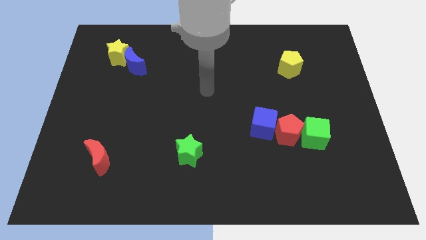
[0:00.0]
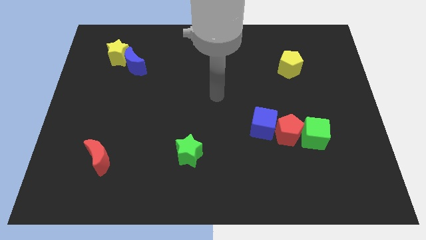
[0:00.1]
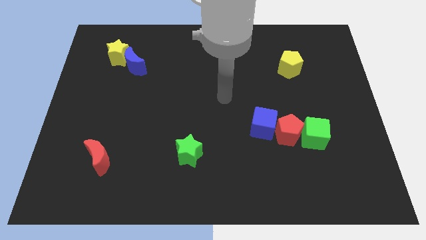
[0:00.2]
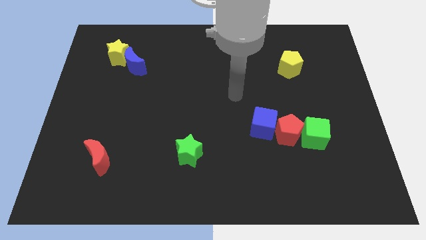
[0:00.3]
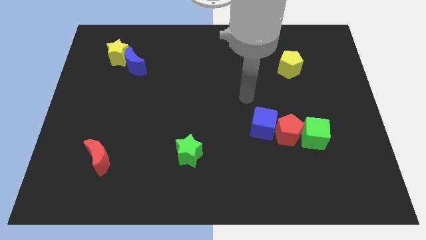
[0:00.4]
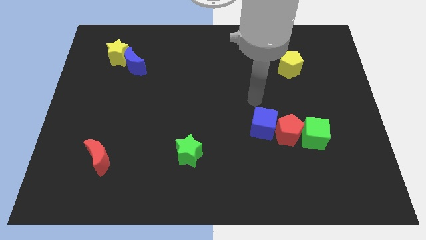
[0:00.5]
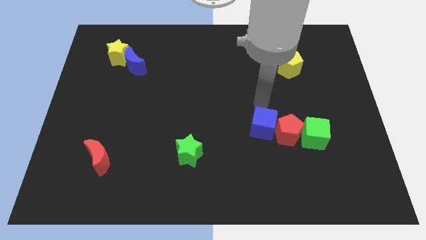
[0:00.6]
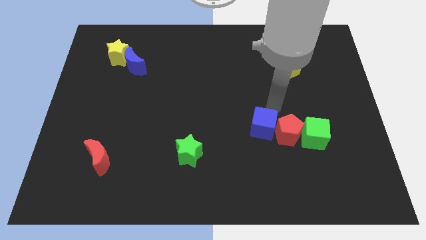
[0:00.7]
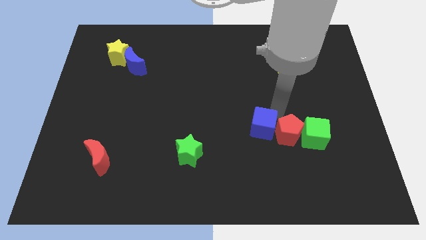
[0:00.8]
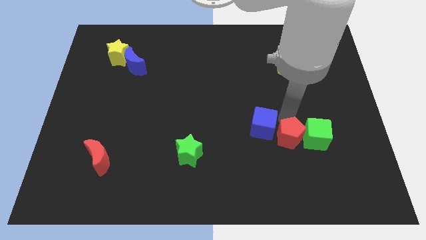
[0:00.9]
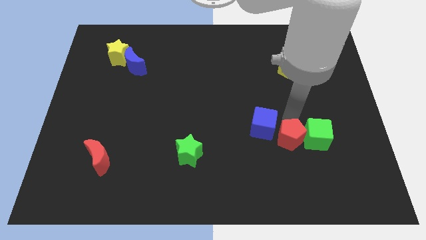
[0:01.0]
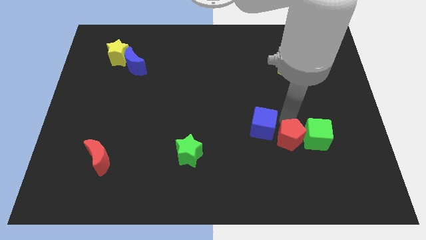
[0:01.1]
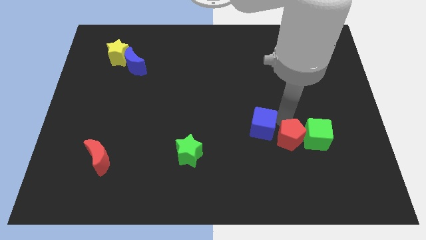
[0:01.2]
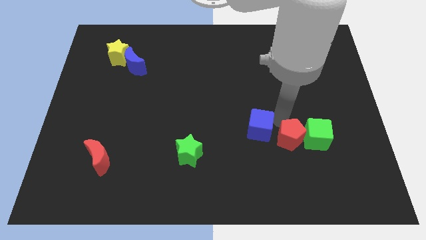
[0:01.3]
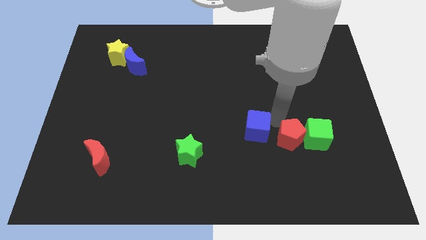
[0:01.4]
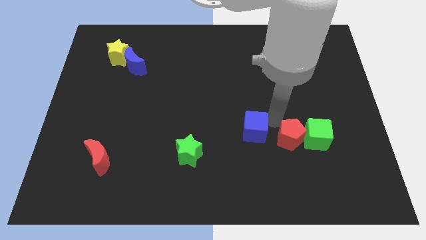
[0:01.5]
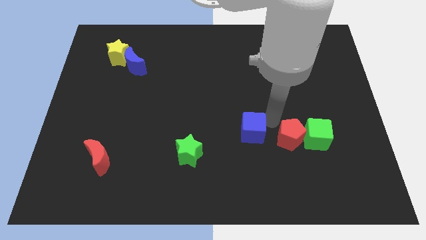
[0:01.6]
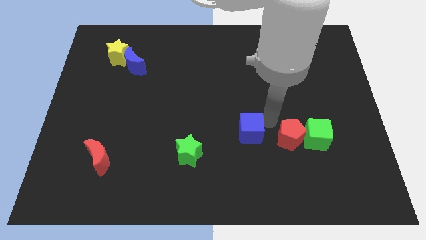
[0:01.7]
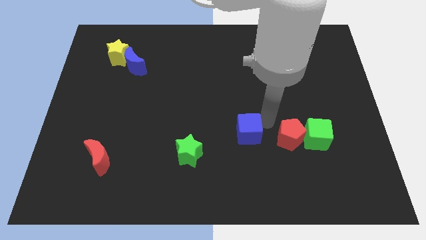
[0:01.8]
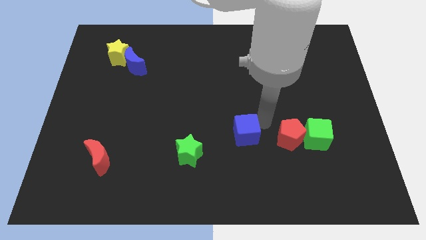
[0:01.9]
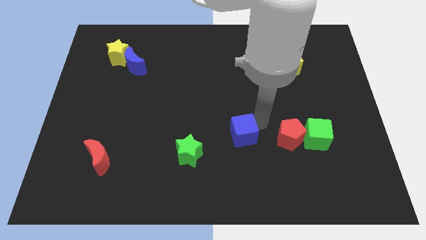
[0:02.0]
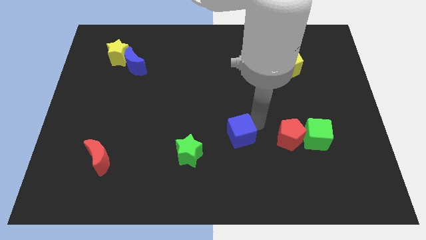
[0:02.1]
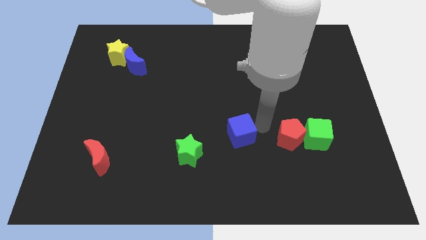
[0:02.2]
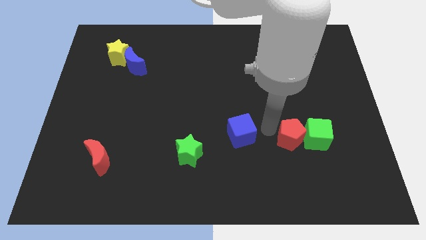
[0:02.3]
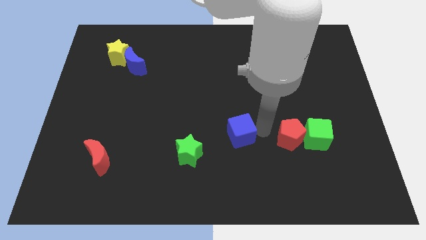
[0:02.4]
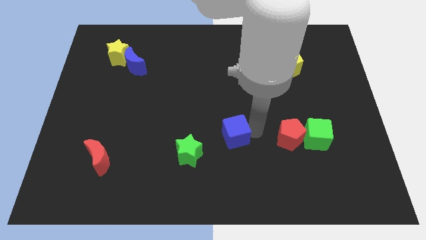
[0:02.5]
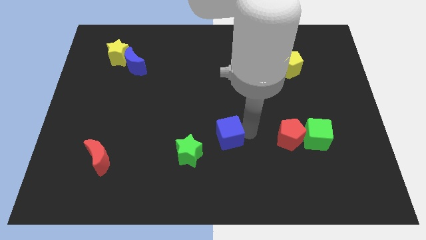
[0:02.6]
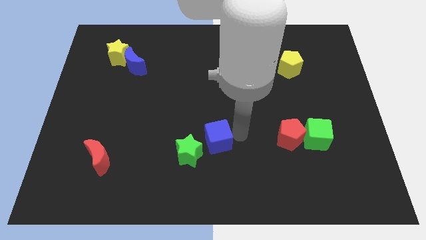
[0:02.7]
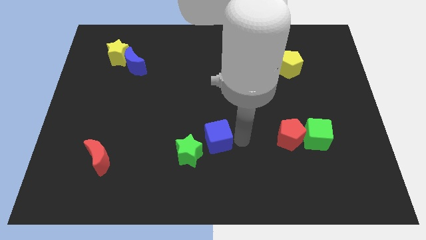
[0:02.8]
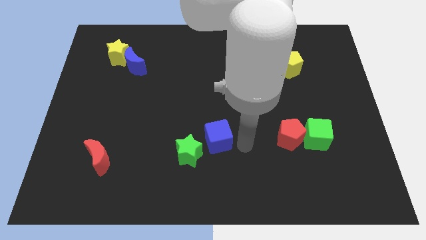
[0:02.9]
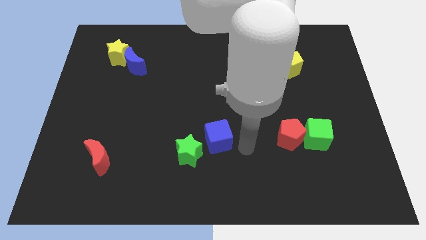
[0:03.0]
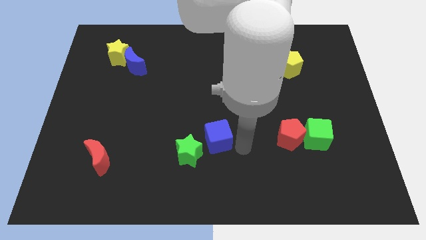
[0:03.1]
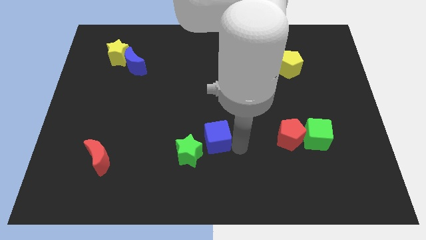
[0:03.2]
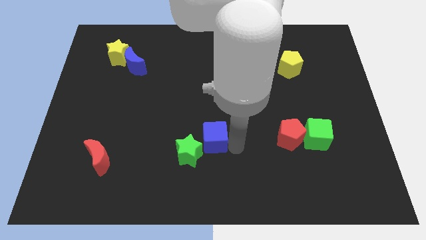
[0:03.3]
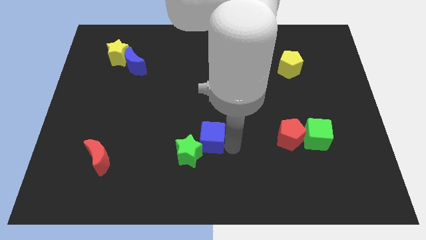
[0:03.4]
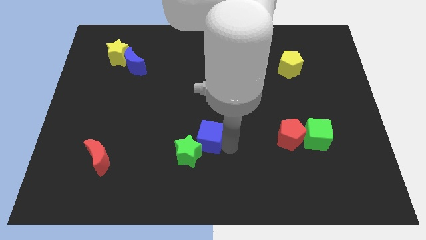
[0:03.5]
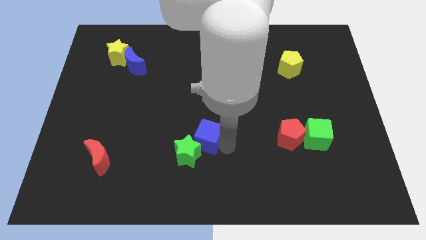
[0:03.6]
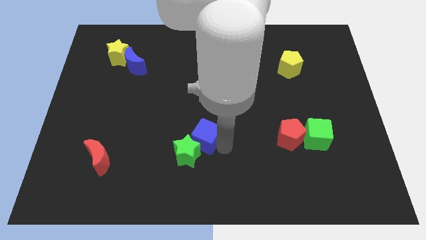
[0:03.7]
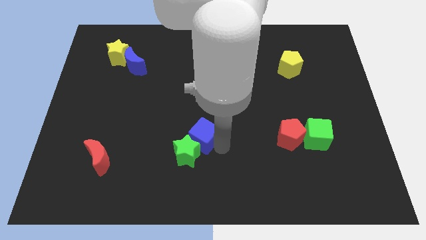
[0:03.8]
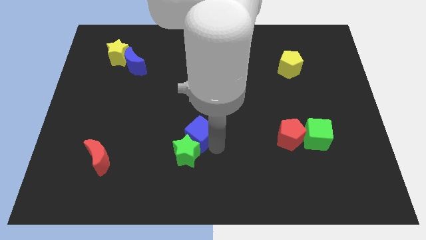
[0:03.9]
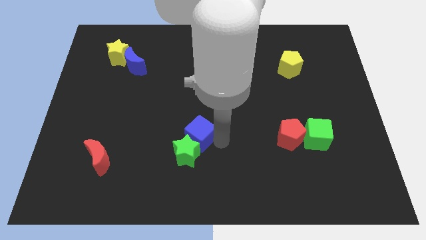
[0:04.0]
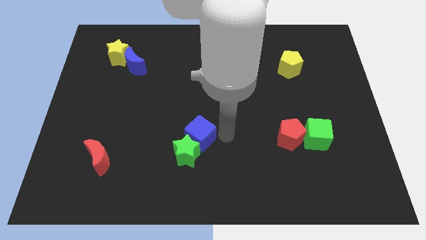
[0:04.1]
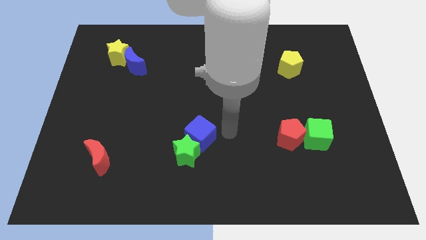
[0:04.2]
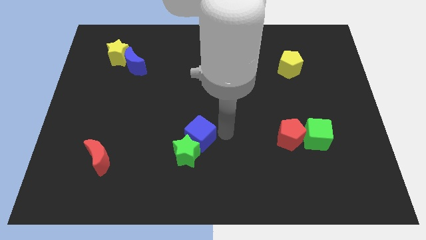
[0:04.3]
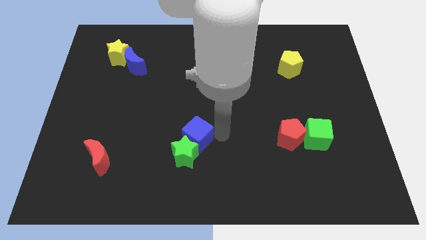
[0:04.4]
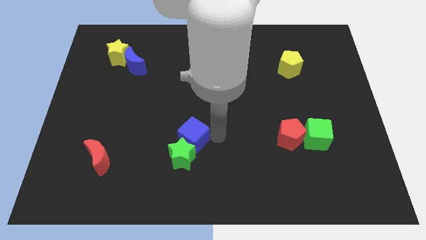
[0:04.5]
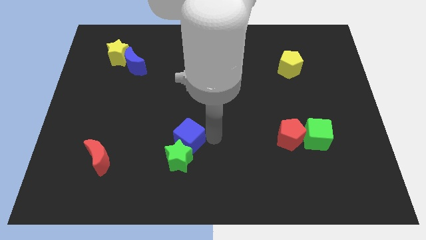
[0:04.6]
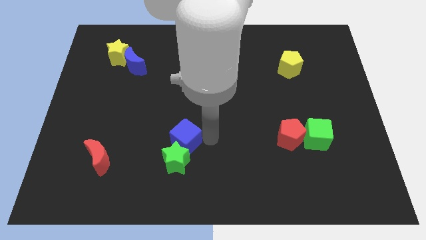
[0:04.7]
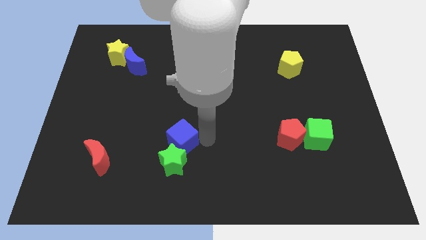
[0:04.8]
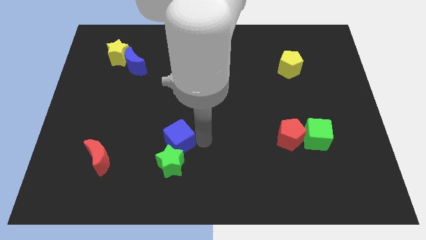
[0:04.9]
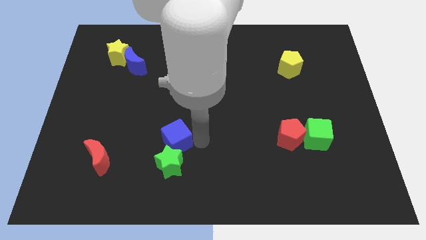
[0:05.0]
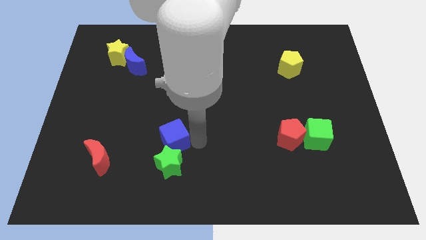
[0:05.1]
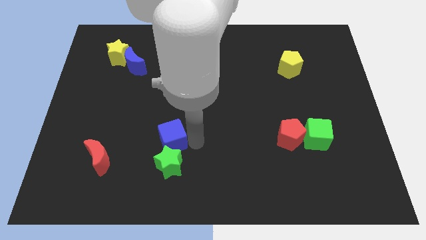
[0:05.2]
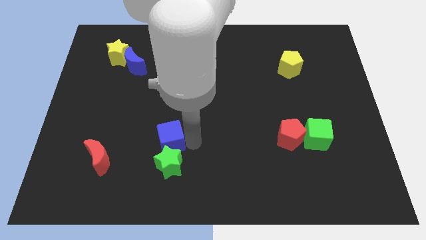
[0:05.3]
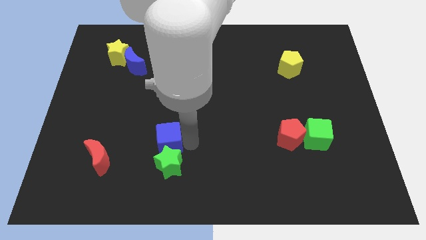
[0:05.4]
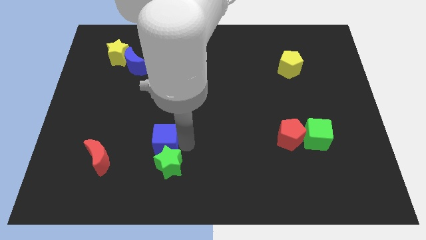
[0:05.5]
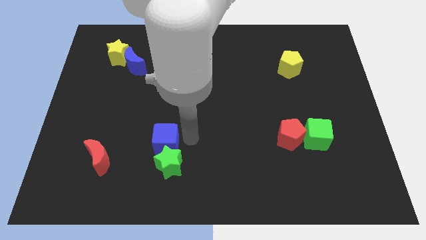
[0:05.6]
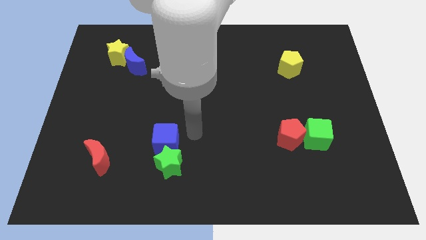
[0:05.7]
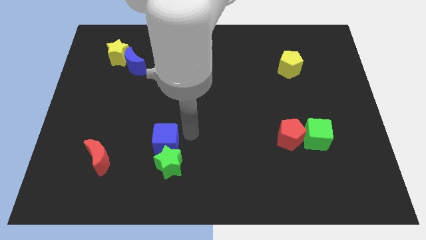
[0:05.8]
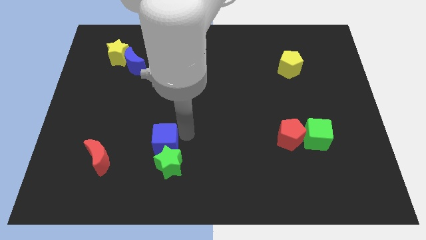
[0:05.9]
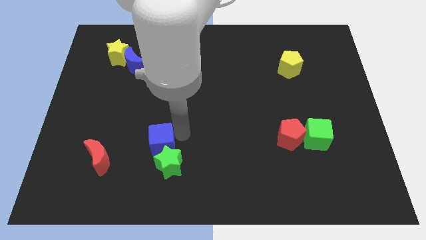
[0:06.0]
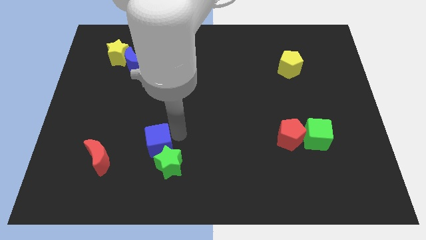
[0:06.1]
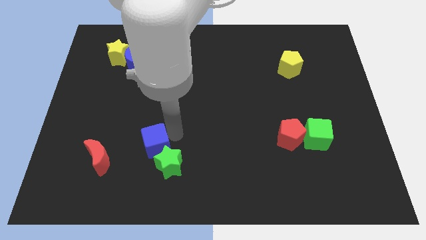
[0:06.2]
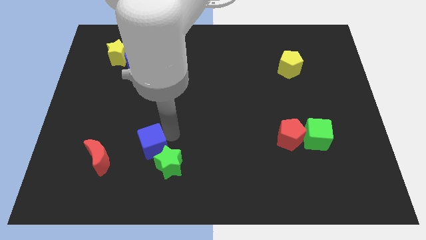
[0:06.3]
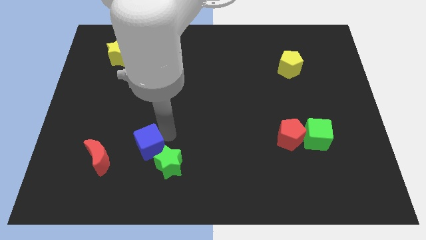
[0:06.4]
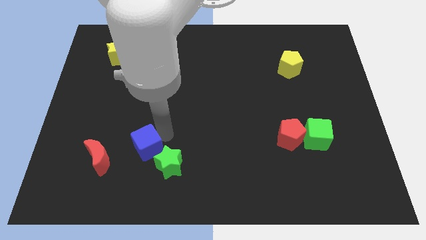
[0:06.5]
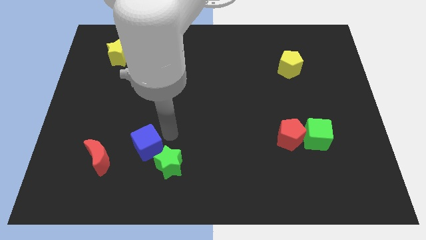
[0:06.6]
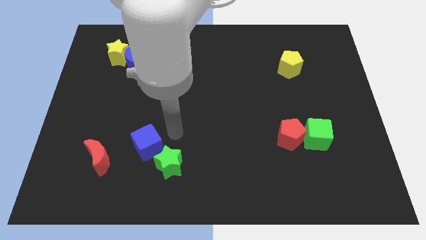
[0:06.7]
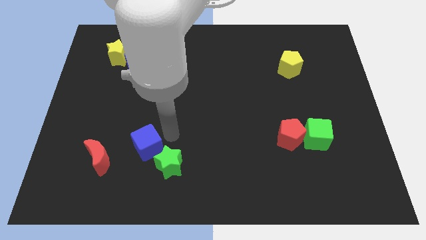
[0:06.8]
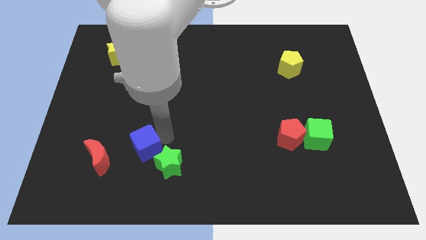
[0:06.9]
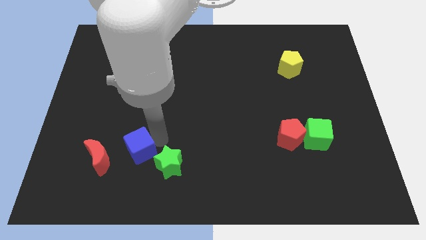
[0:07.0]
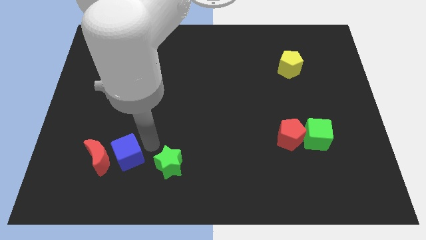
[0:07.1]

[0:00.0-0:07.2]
push the blue cube close to the red moon
